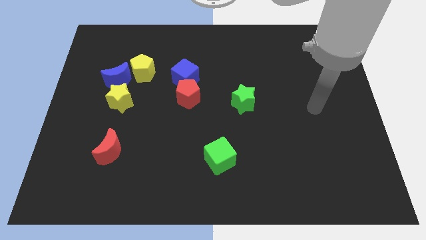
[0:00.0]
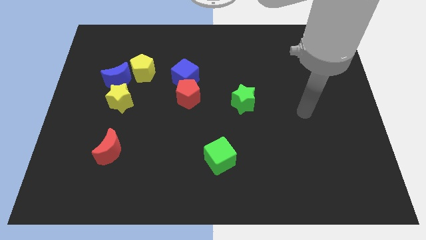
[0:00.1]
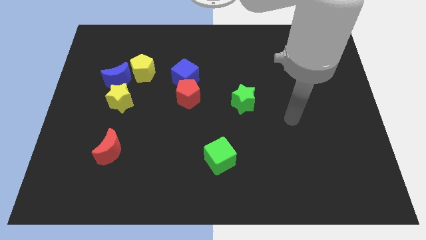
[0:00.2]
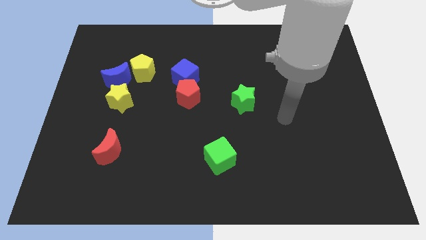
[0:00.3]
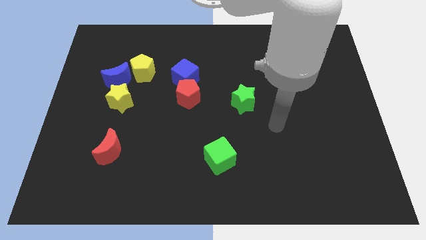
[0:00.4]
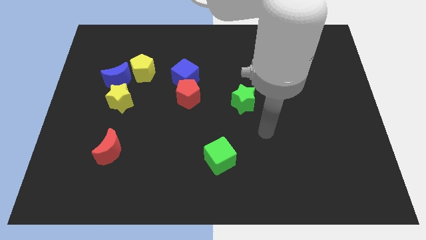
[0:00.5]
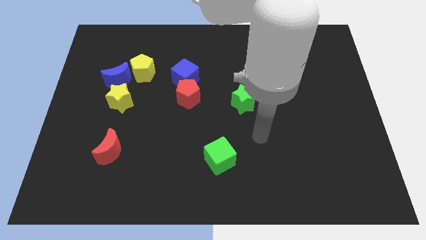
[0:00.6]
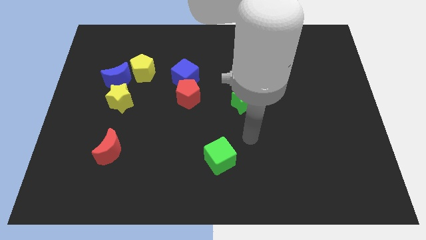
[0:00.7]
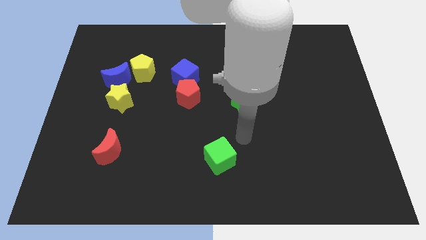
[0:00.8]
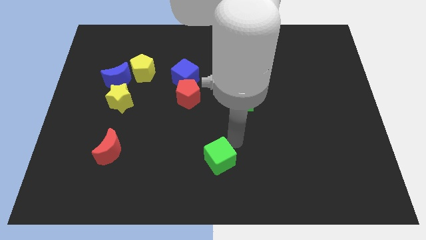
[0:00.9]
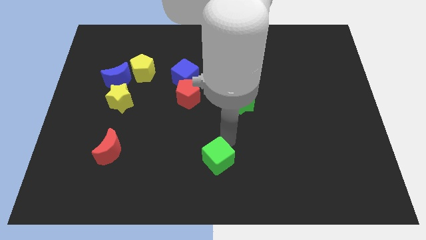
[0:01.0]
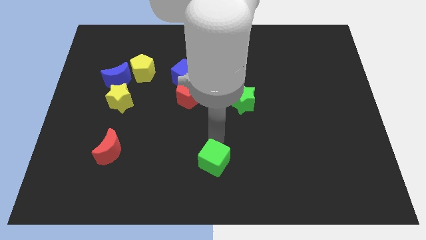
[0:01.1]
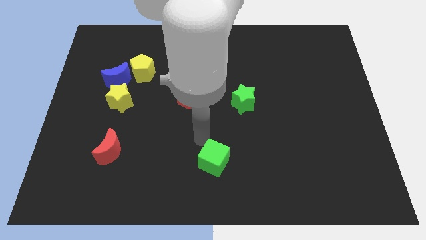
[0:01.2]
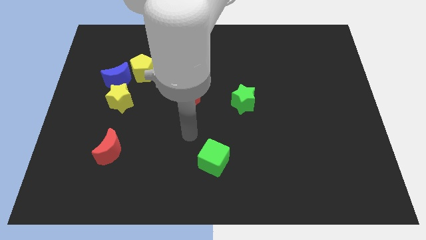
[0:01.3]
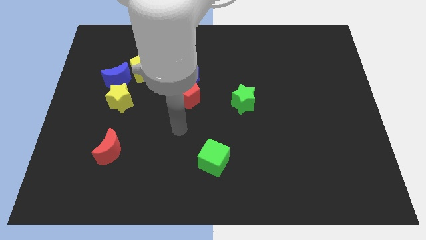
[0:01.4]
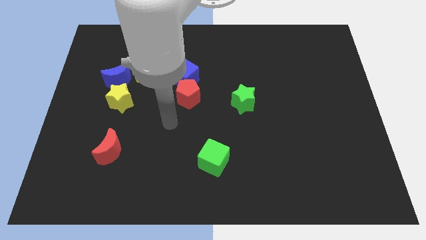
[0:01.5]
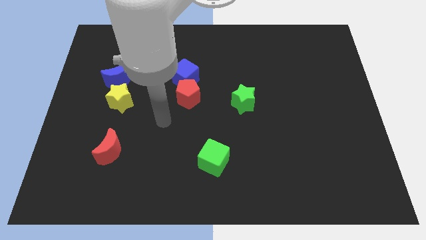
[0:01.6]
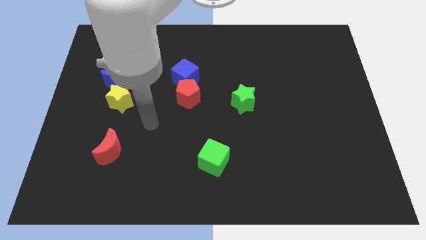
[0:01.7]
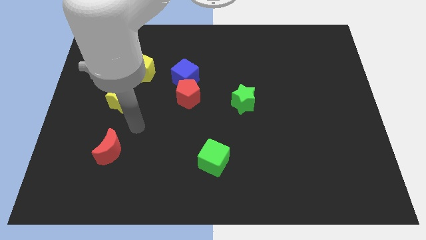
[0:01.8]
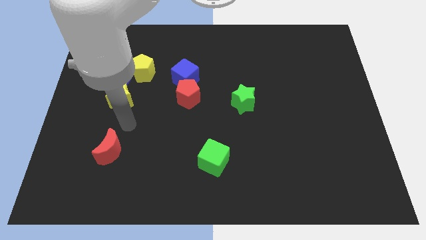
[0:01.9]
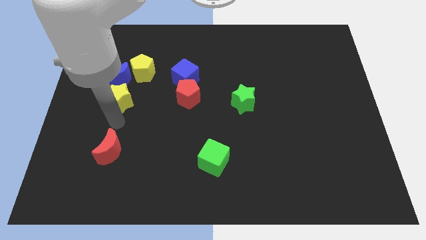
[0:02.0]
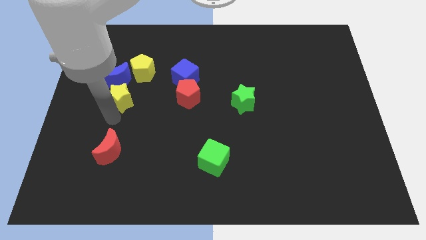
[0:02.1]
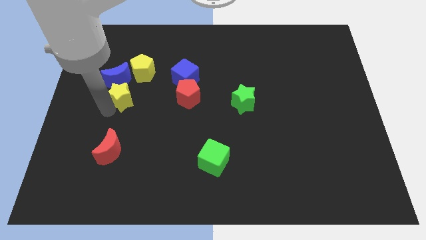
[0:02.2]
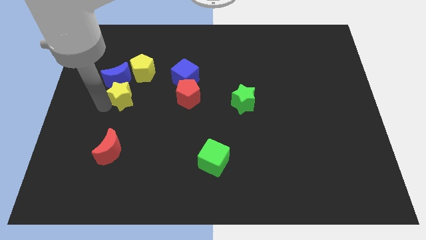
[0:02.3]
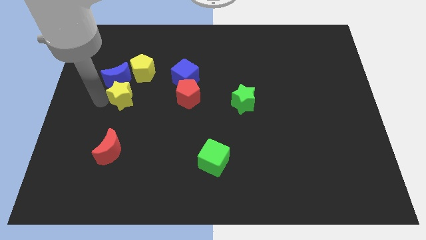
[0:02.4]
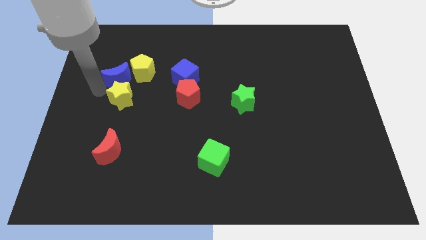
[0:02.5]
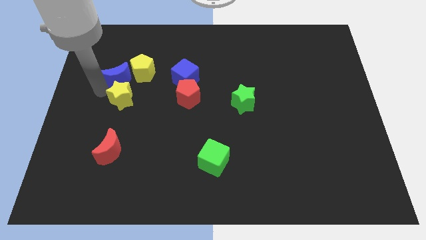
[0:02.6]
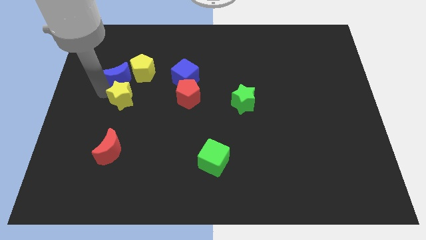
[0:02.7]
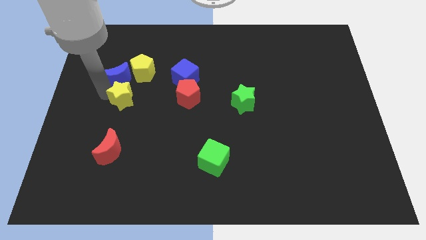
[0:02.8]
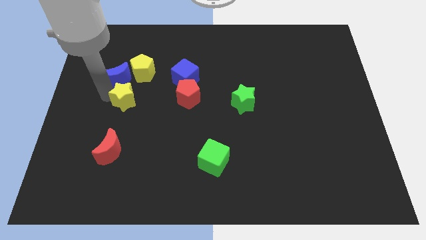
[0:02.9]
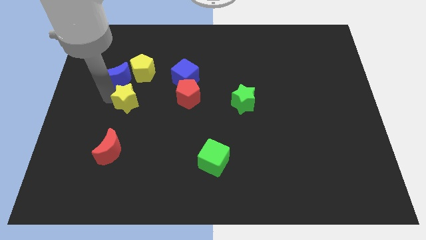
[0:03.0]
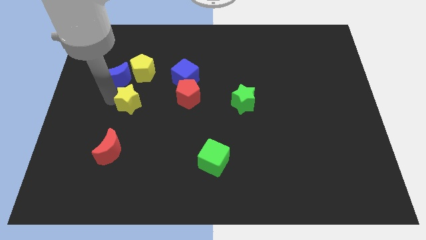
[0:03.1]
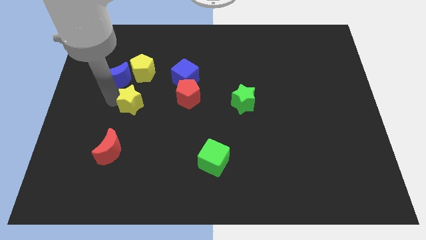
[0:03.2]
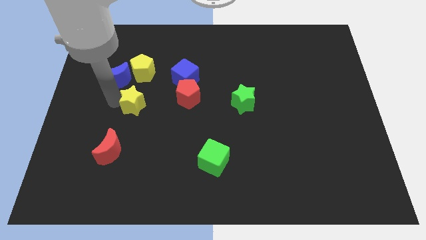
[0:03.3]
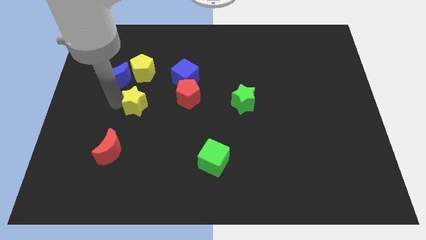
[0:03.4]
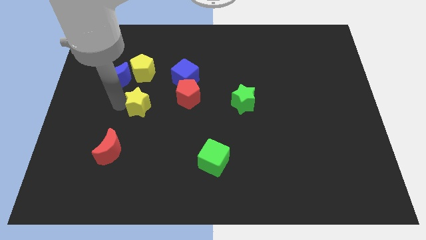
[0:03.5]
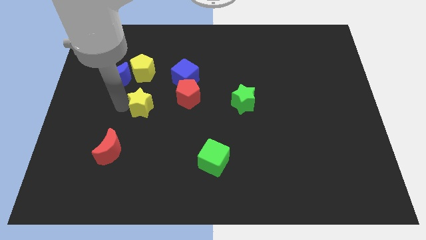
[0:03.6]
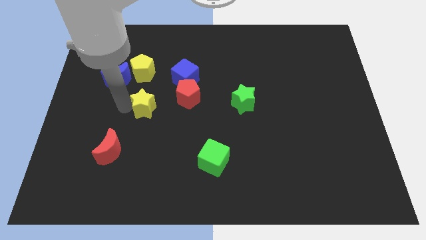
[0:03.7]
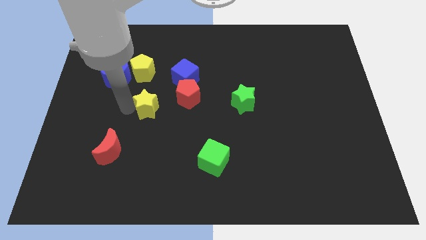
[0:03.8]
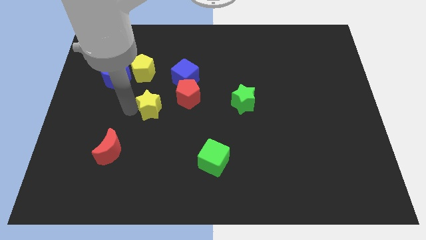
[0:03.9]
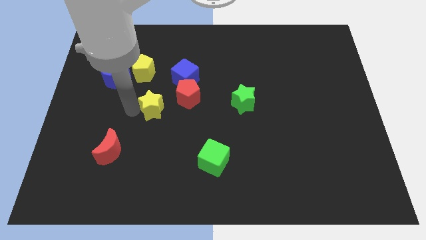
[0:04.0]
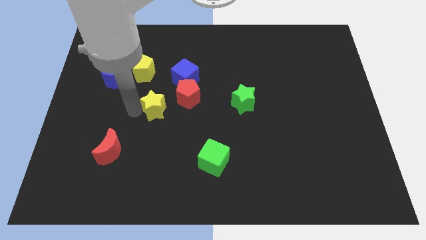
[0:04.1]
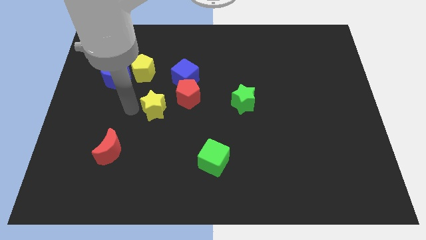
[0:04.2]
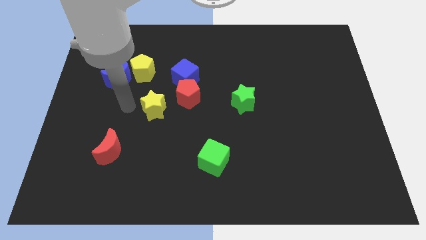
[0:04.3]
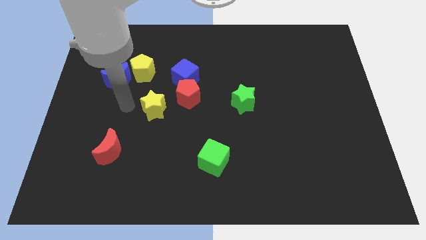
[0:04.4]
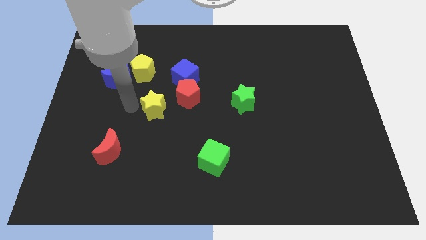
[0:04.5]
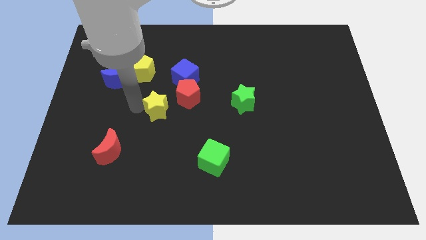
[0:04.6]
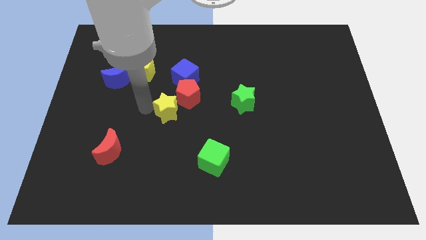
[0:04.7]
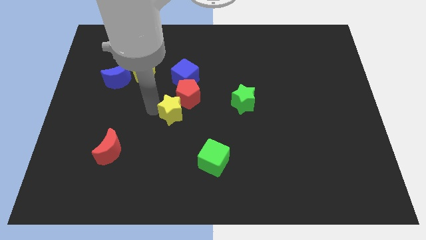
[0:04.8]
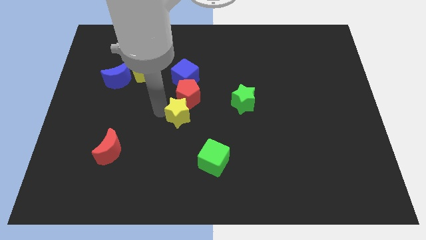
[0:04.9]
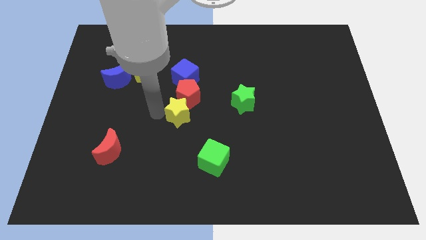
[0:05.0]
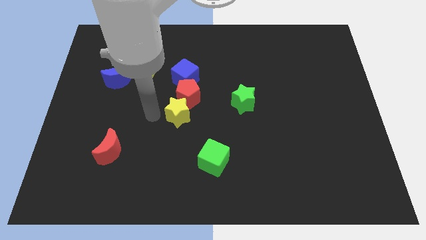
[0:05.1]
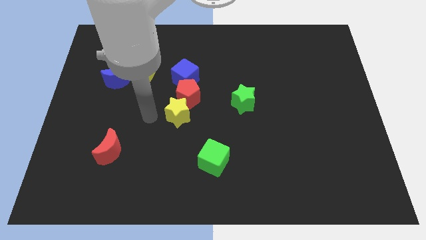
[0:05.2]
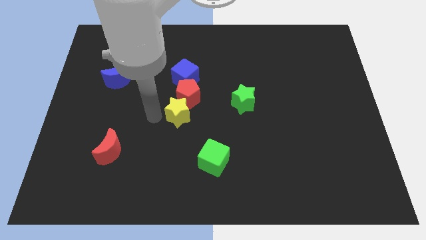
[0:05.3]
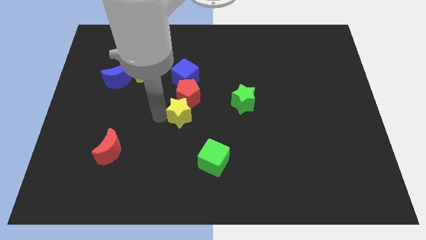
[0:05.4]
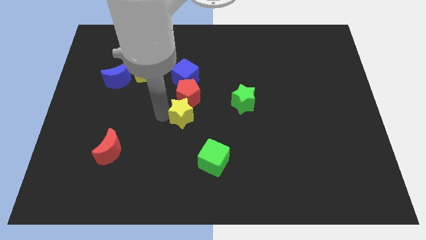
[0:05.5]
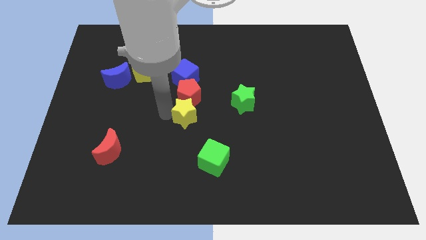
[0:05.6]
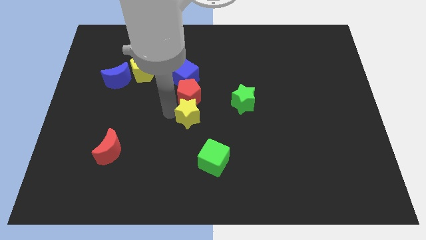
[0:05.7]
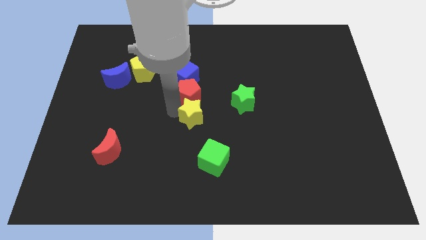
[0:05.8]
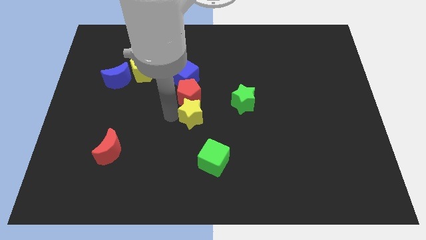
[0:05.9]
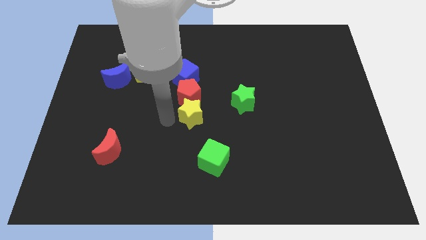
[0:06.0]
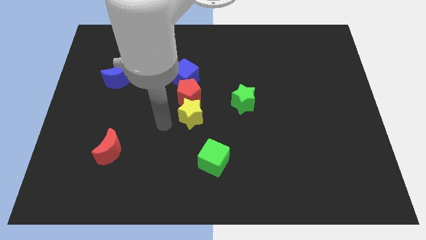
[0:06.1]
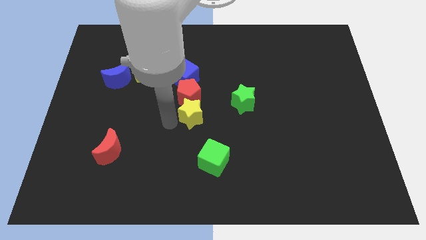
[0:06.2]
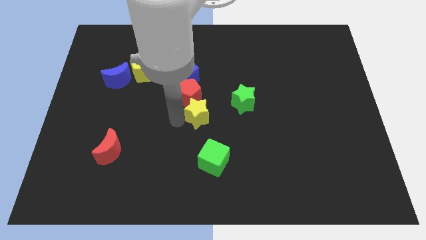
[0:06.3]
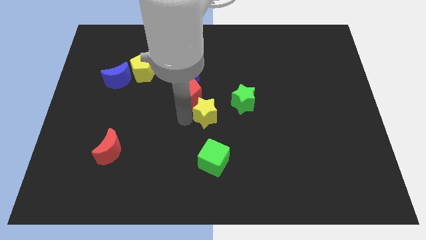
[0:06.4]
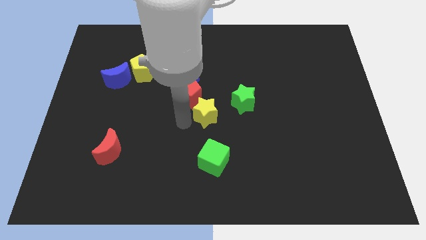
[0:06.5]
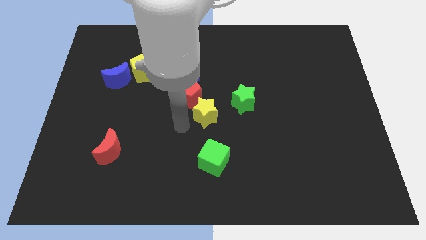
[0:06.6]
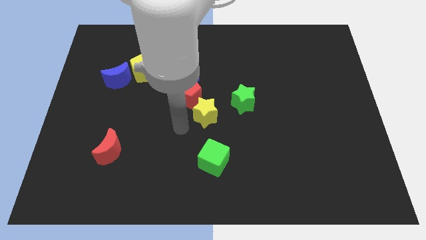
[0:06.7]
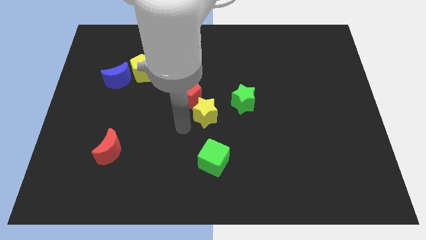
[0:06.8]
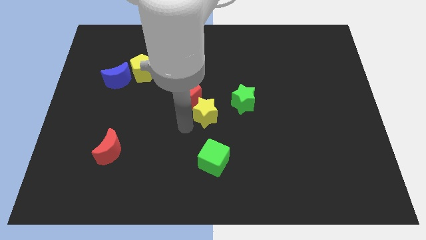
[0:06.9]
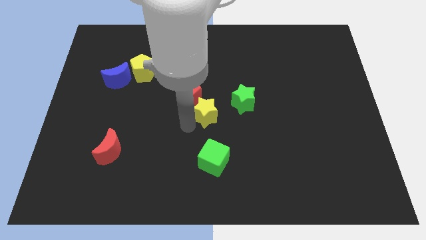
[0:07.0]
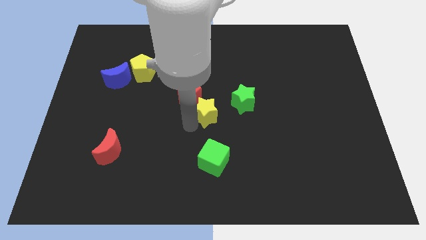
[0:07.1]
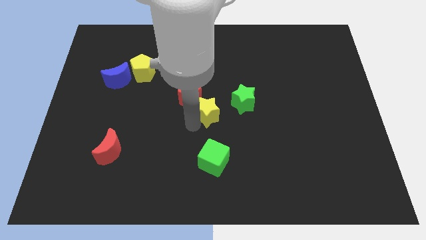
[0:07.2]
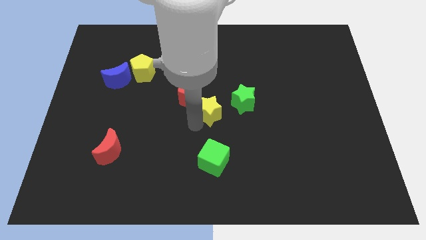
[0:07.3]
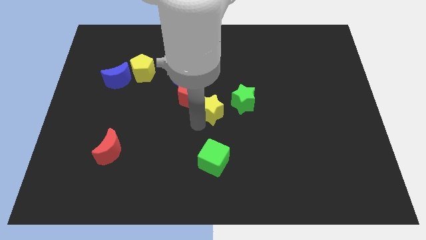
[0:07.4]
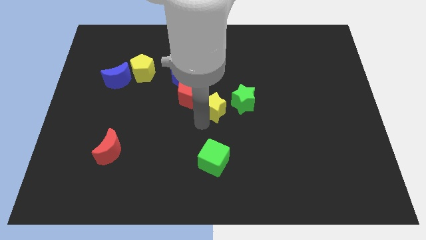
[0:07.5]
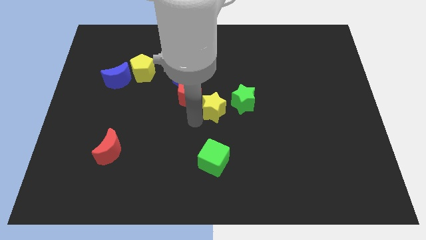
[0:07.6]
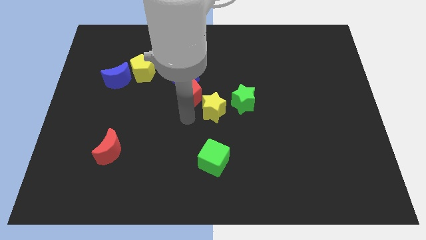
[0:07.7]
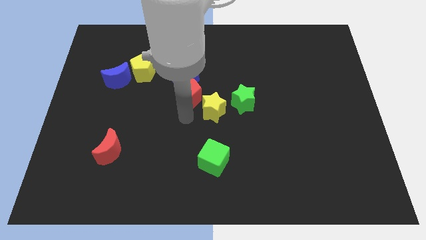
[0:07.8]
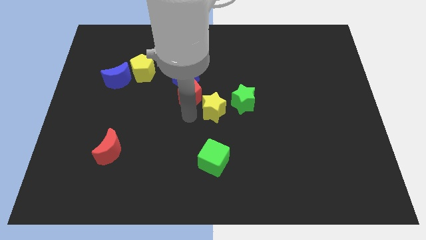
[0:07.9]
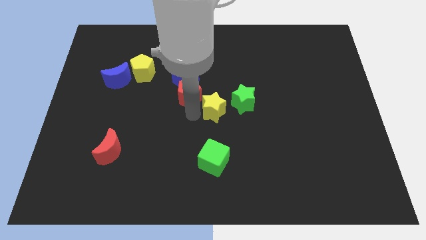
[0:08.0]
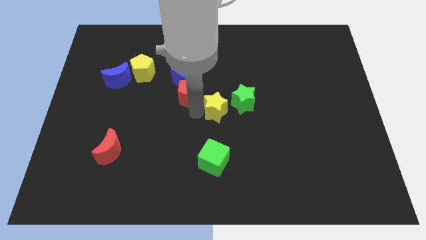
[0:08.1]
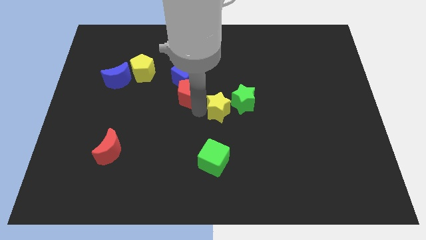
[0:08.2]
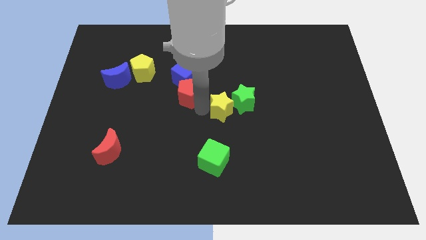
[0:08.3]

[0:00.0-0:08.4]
move the yellow star close to the green star
